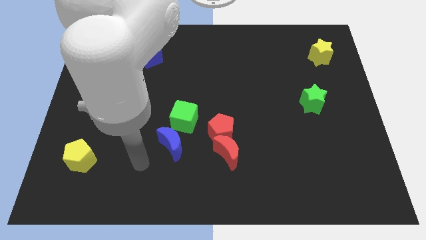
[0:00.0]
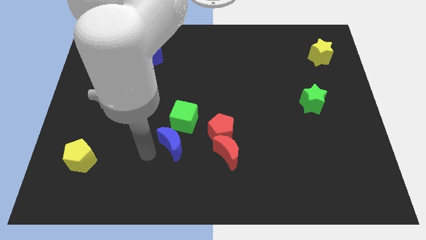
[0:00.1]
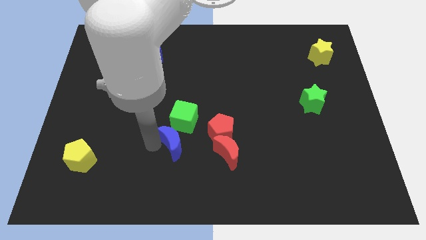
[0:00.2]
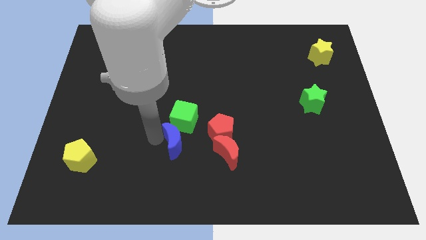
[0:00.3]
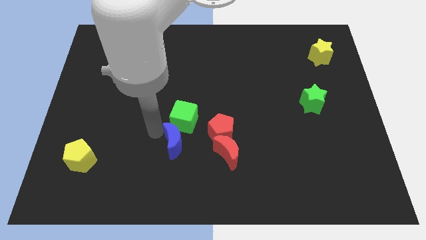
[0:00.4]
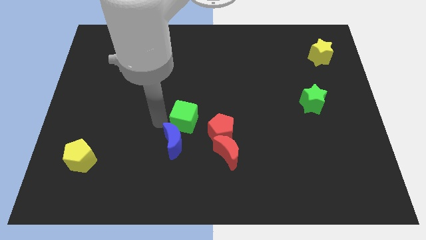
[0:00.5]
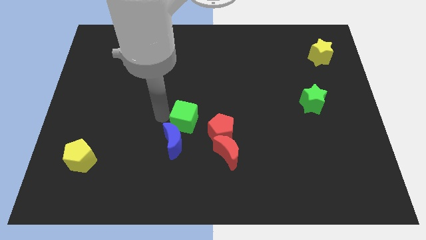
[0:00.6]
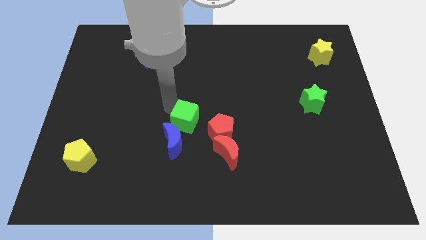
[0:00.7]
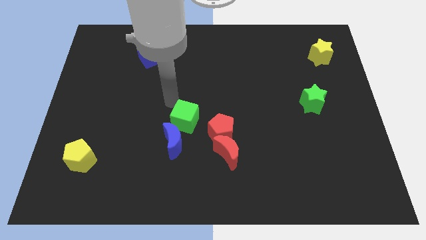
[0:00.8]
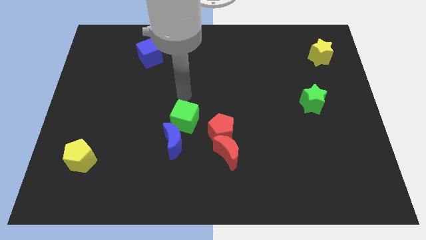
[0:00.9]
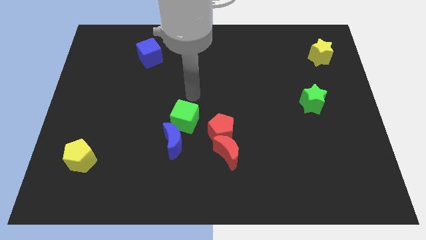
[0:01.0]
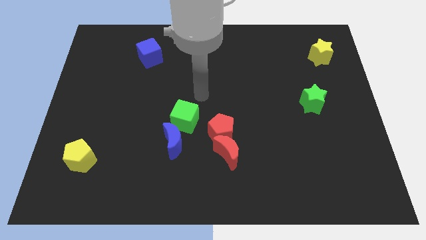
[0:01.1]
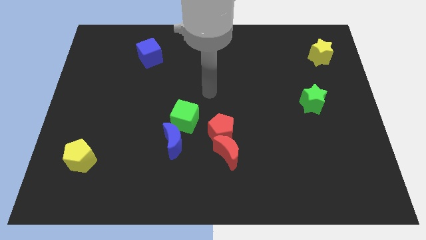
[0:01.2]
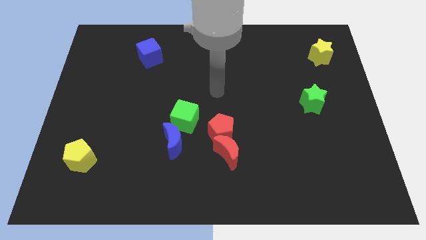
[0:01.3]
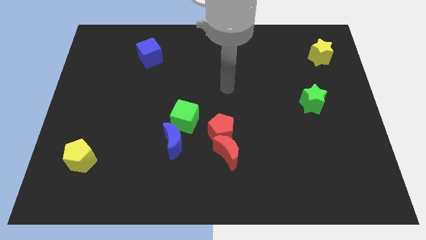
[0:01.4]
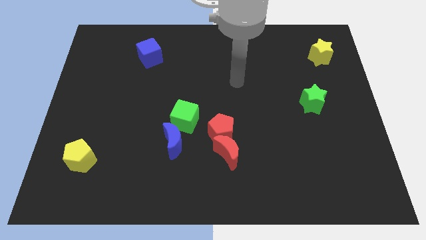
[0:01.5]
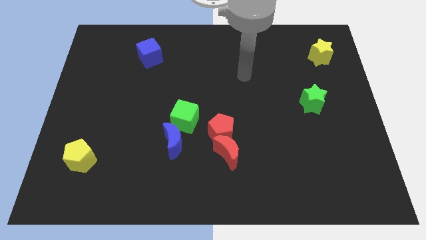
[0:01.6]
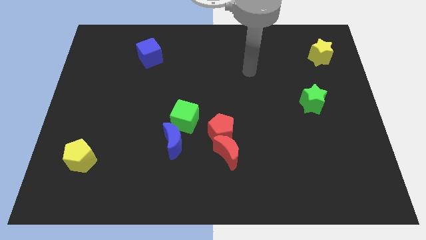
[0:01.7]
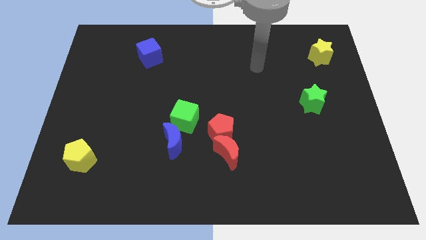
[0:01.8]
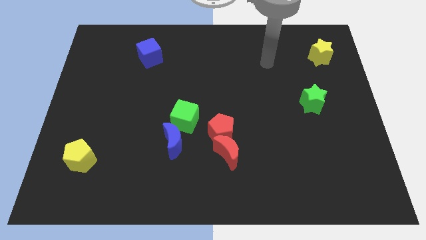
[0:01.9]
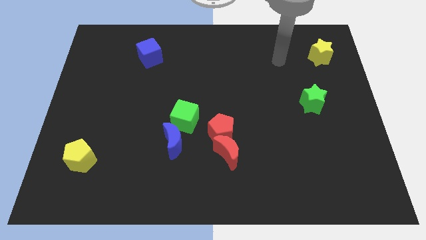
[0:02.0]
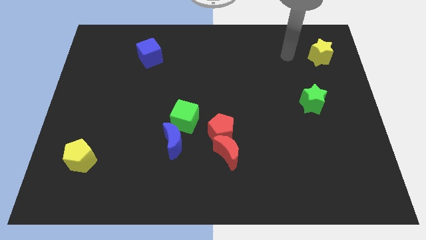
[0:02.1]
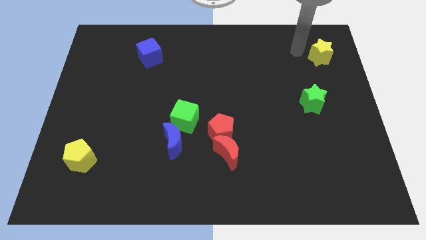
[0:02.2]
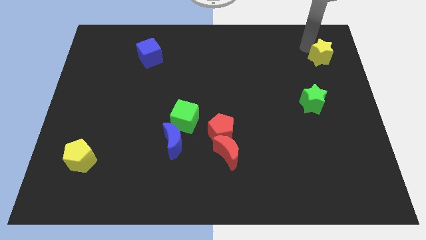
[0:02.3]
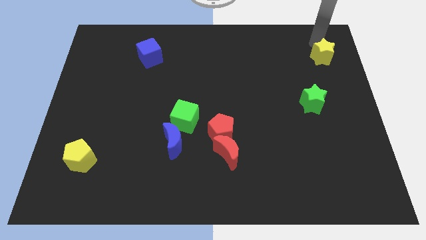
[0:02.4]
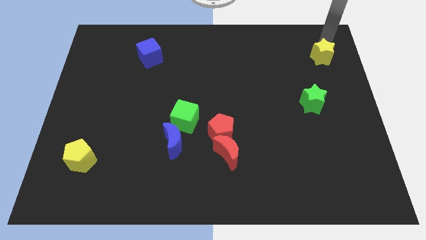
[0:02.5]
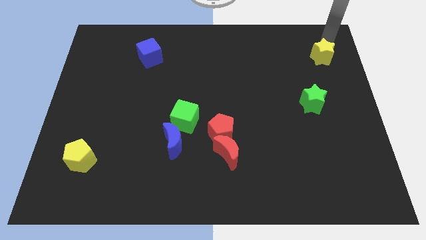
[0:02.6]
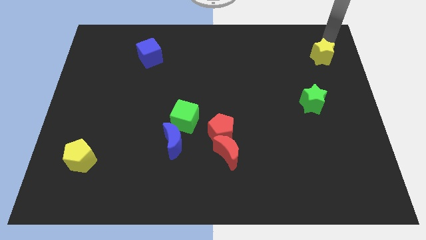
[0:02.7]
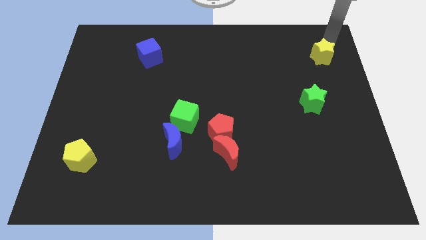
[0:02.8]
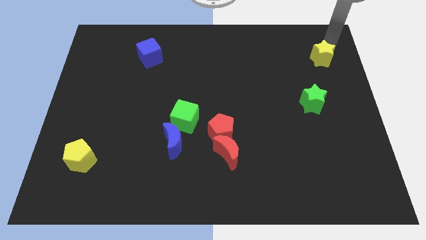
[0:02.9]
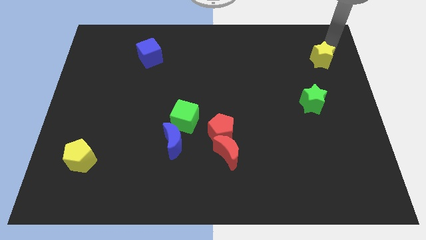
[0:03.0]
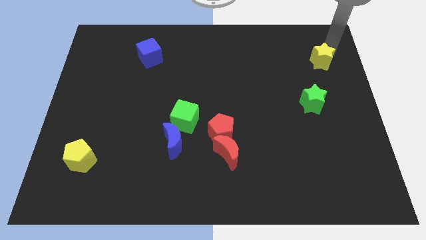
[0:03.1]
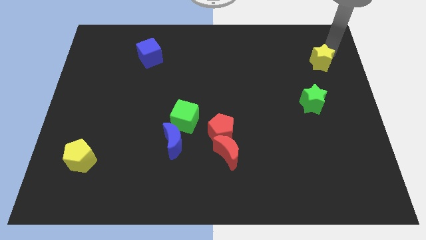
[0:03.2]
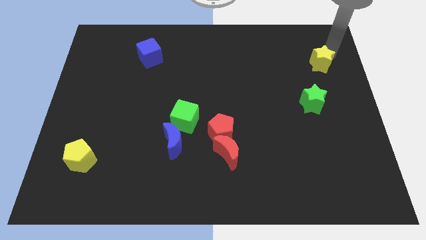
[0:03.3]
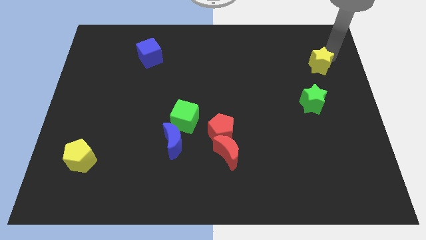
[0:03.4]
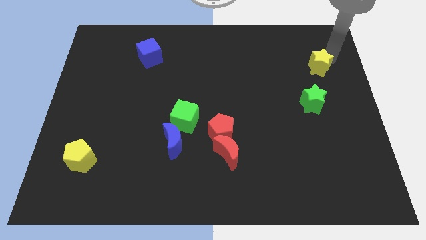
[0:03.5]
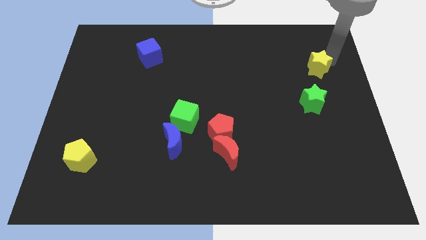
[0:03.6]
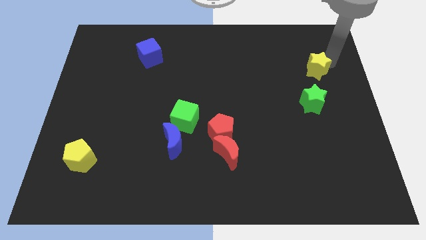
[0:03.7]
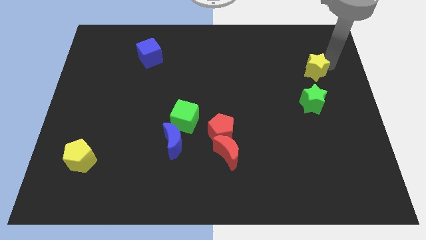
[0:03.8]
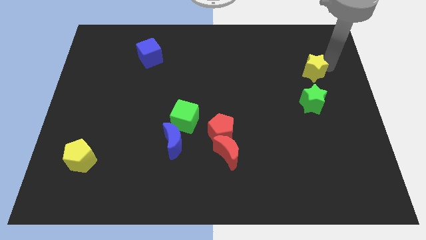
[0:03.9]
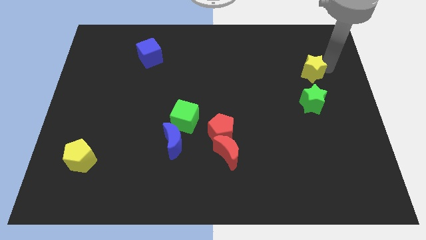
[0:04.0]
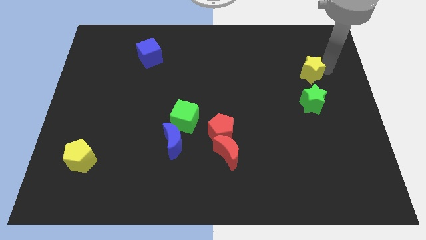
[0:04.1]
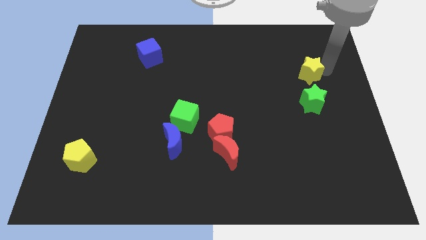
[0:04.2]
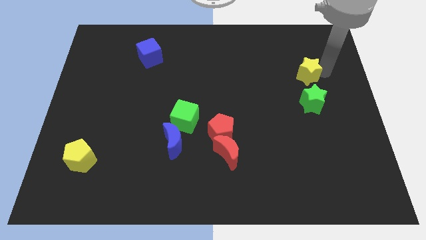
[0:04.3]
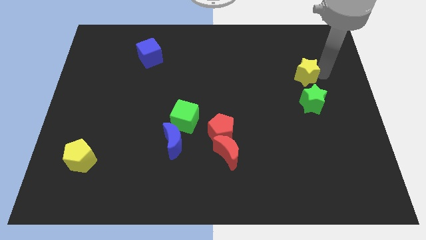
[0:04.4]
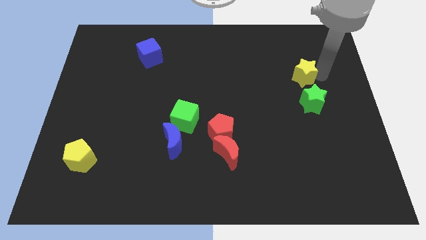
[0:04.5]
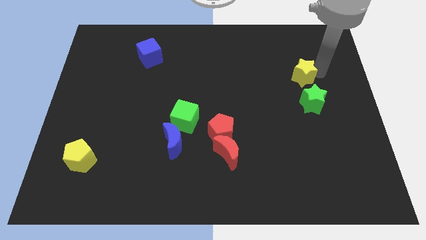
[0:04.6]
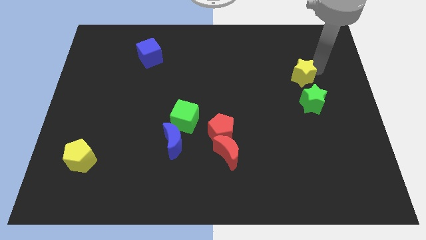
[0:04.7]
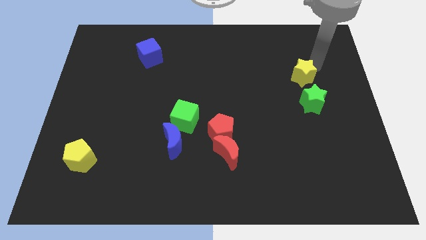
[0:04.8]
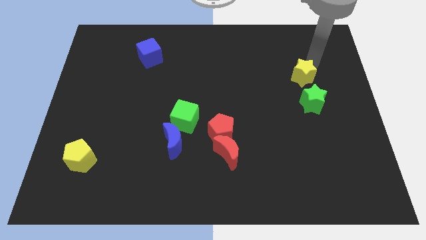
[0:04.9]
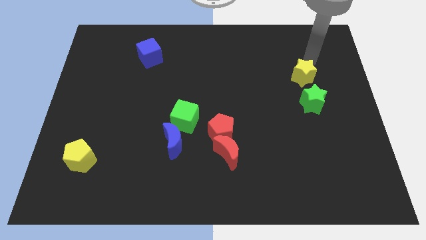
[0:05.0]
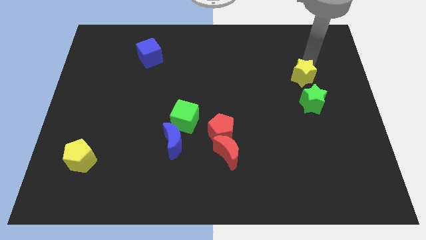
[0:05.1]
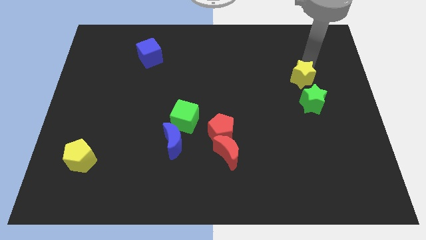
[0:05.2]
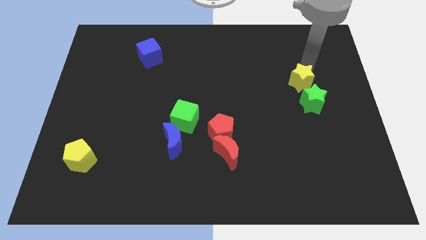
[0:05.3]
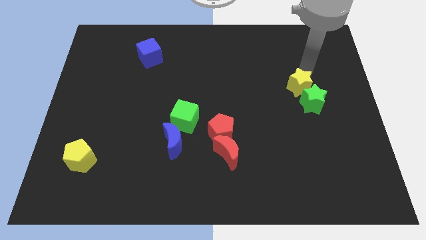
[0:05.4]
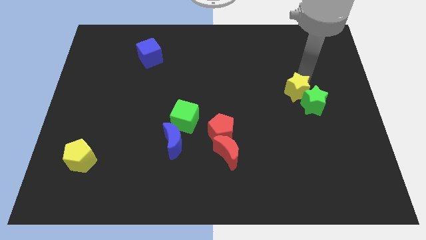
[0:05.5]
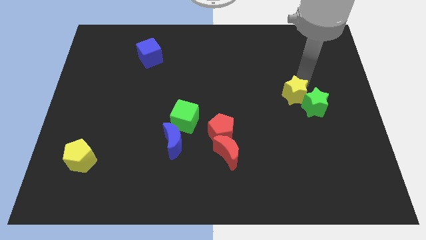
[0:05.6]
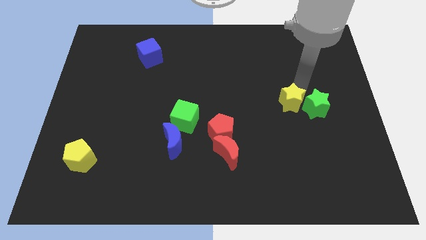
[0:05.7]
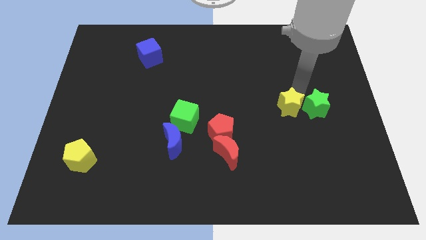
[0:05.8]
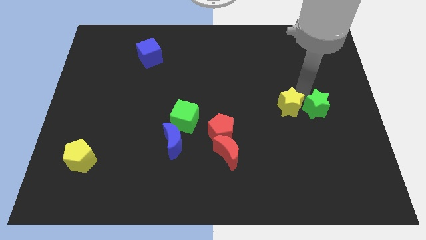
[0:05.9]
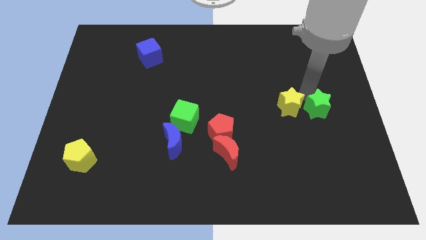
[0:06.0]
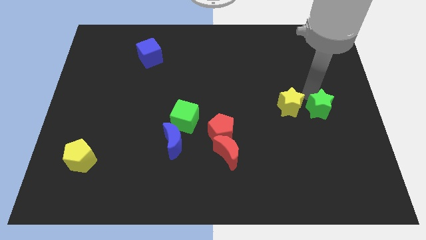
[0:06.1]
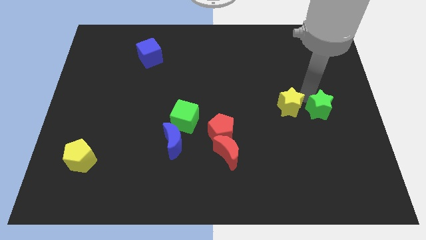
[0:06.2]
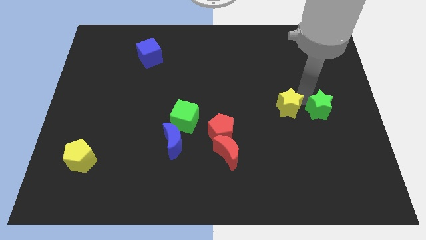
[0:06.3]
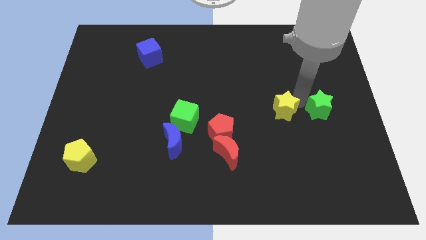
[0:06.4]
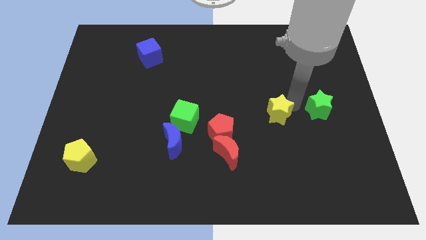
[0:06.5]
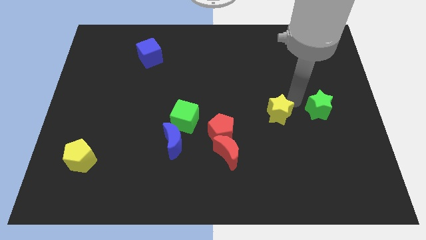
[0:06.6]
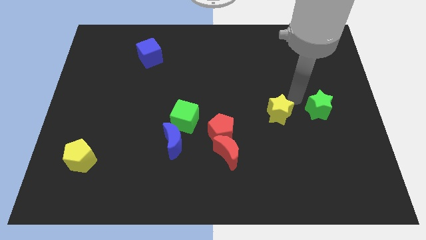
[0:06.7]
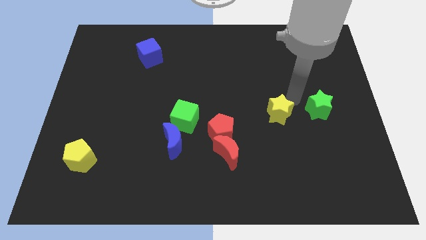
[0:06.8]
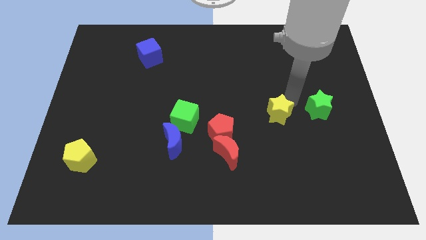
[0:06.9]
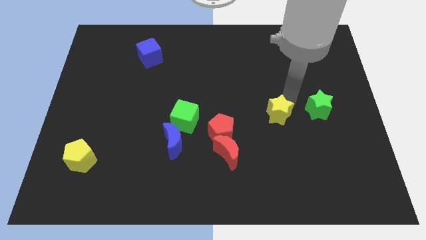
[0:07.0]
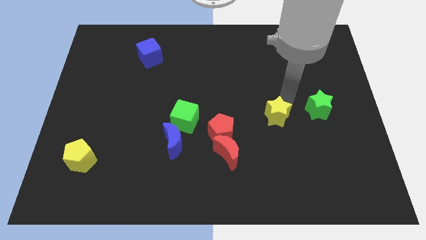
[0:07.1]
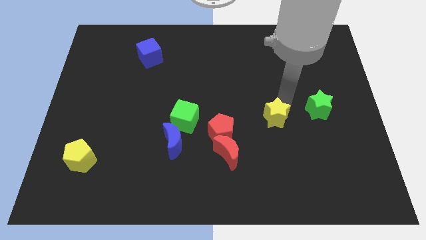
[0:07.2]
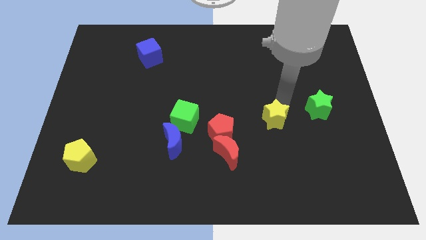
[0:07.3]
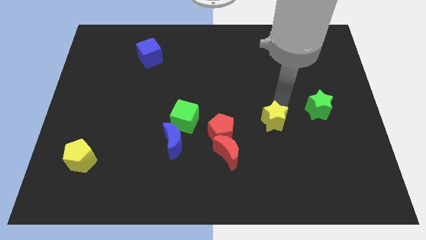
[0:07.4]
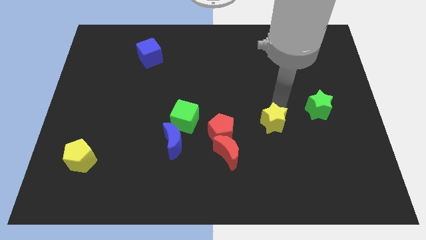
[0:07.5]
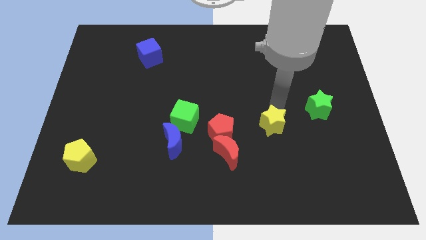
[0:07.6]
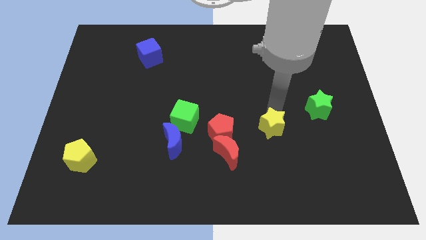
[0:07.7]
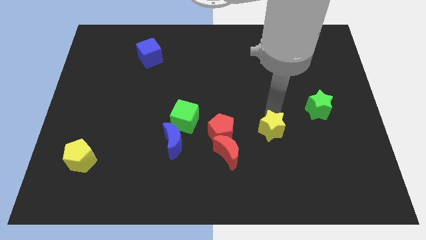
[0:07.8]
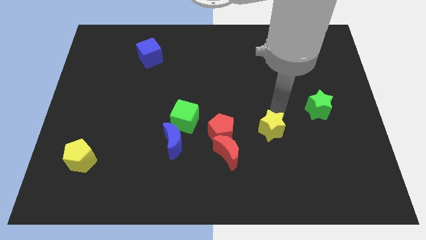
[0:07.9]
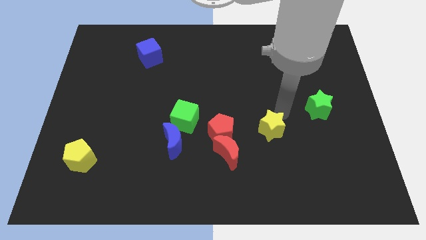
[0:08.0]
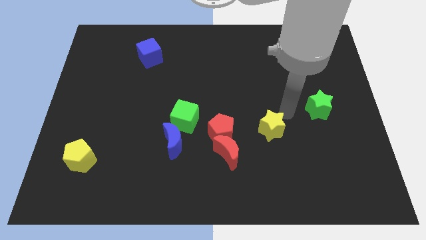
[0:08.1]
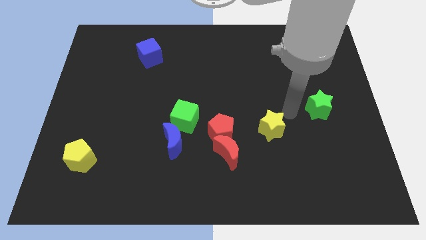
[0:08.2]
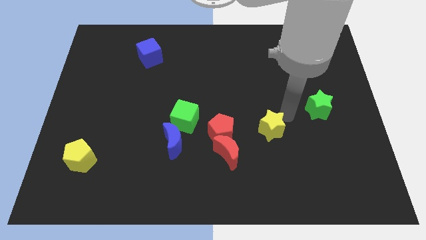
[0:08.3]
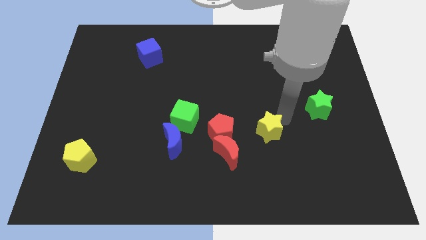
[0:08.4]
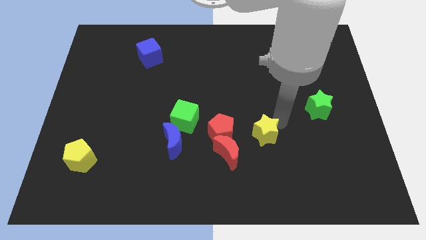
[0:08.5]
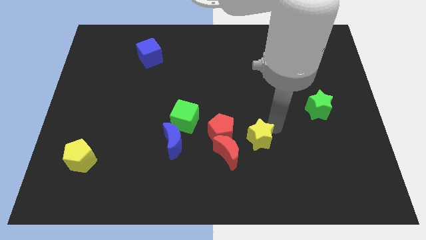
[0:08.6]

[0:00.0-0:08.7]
put the yellow star to the bottom right of the red pentagon
